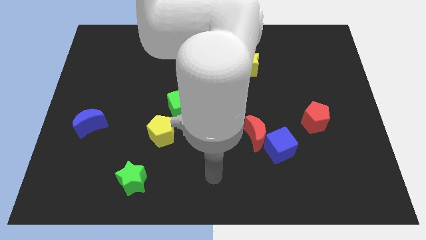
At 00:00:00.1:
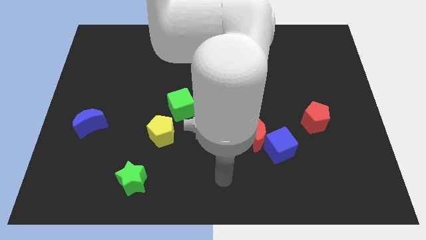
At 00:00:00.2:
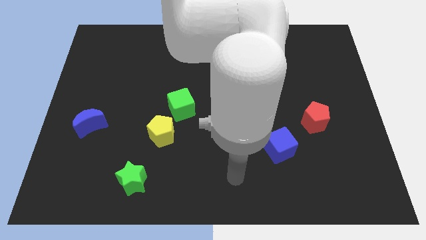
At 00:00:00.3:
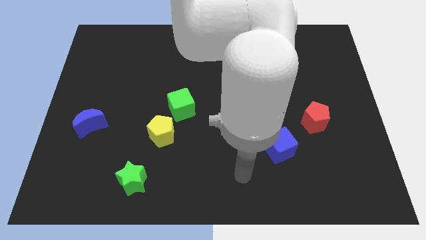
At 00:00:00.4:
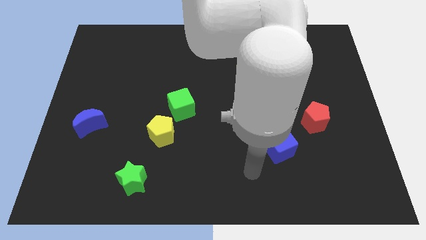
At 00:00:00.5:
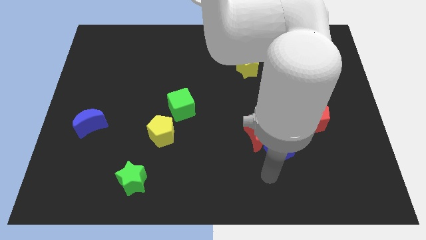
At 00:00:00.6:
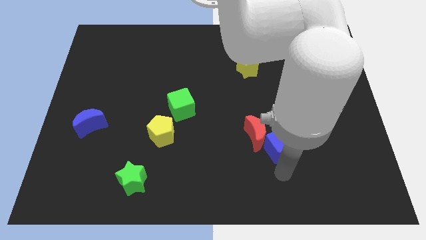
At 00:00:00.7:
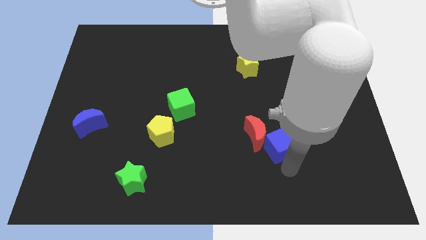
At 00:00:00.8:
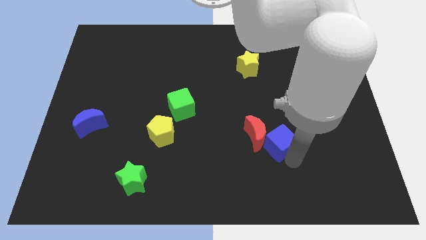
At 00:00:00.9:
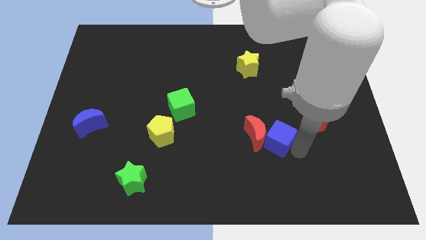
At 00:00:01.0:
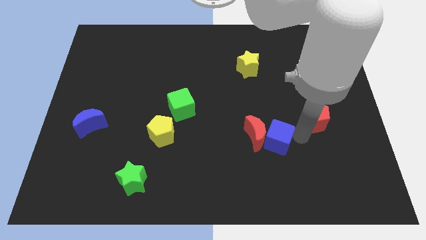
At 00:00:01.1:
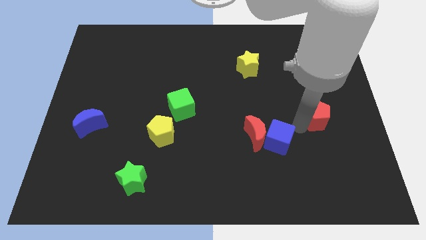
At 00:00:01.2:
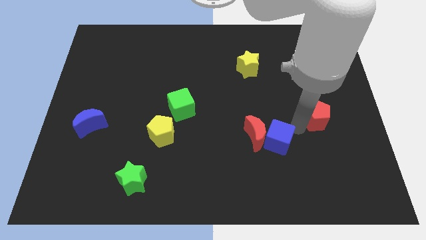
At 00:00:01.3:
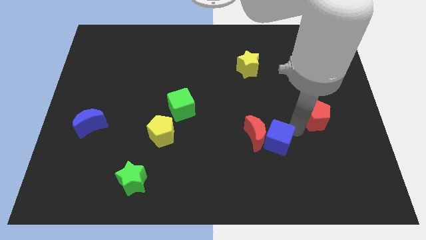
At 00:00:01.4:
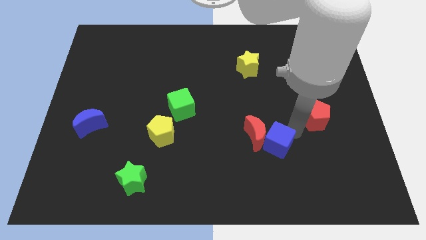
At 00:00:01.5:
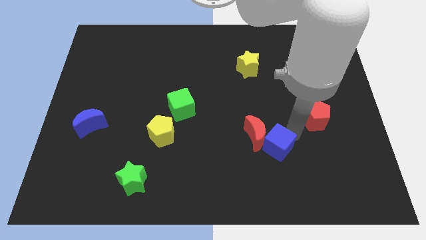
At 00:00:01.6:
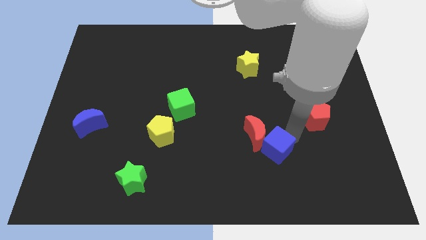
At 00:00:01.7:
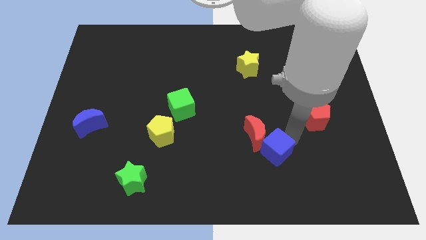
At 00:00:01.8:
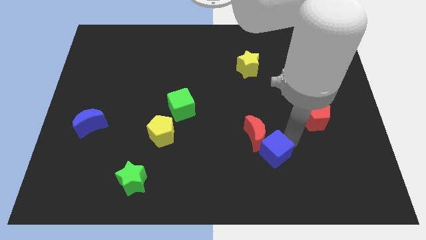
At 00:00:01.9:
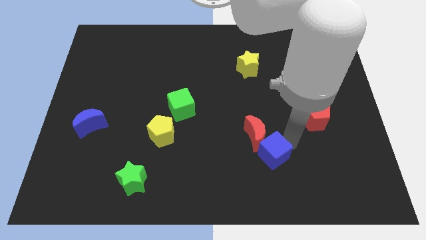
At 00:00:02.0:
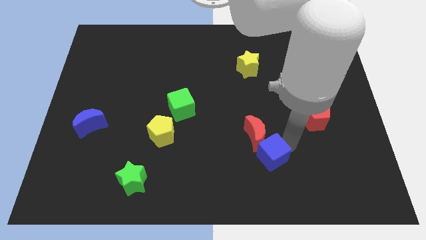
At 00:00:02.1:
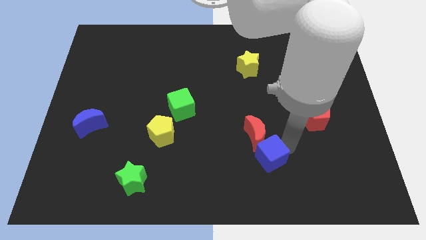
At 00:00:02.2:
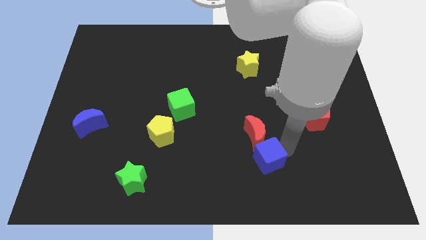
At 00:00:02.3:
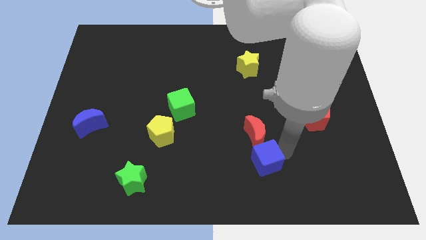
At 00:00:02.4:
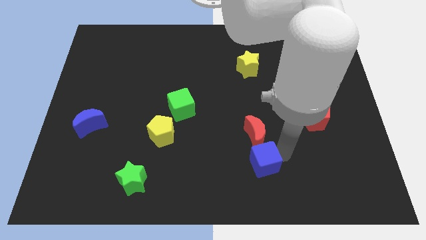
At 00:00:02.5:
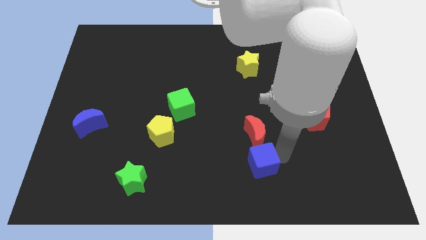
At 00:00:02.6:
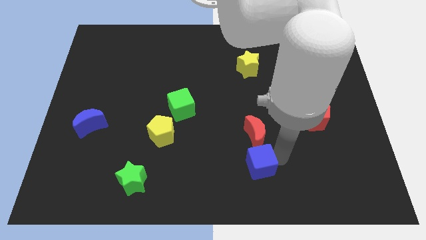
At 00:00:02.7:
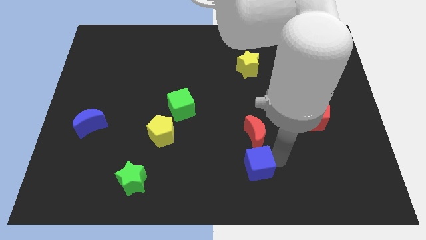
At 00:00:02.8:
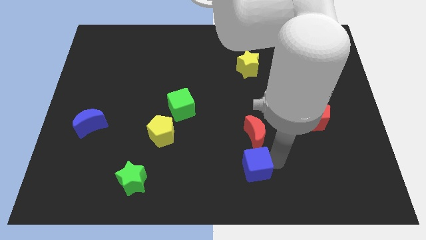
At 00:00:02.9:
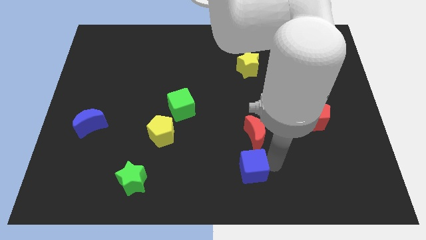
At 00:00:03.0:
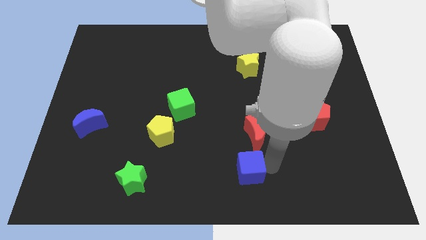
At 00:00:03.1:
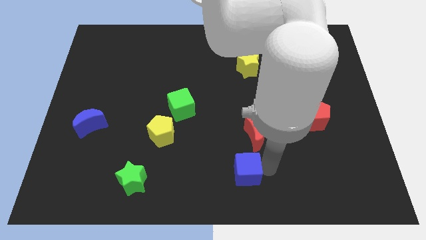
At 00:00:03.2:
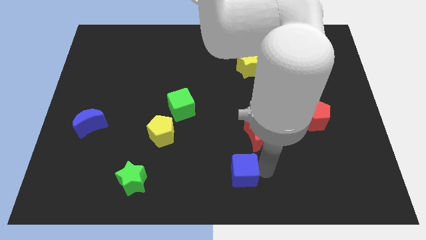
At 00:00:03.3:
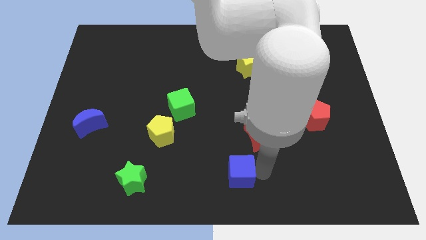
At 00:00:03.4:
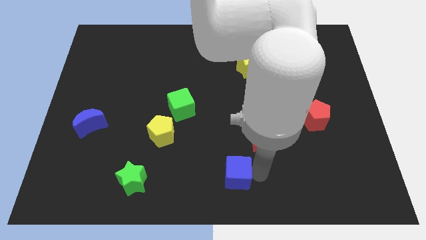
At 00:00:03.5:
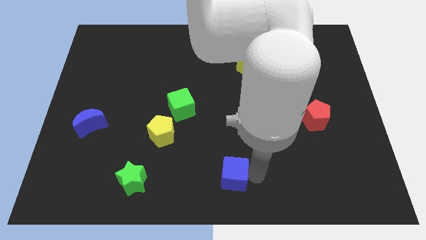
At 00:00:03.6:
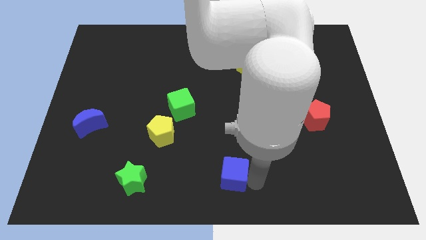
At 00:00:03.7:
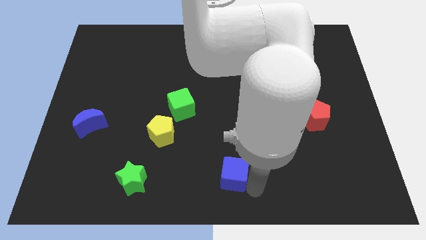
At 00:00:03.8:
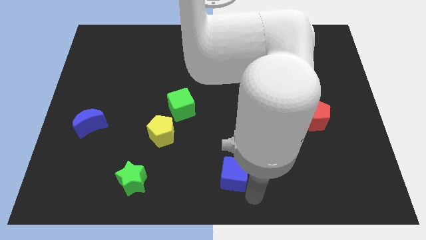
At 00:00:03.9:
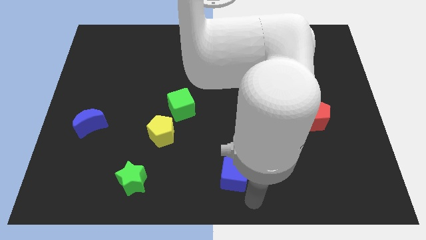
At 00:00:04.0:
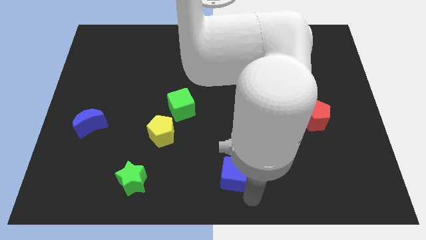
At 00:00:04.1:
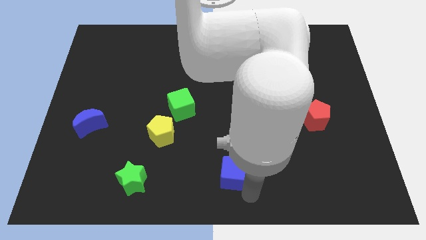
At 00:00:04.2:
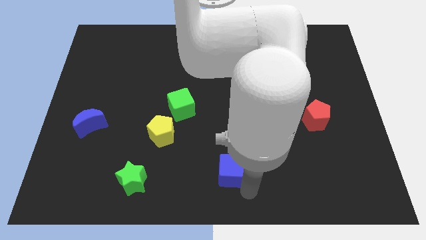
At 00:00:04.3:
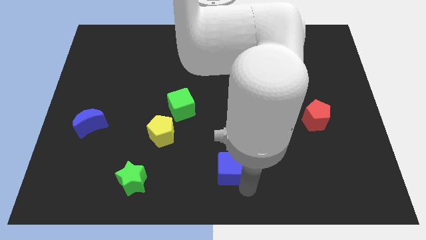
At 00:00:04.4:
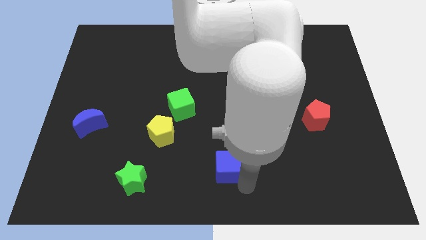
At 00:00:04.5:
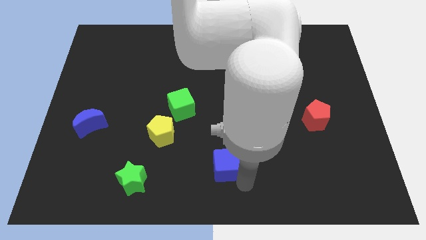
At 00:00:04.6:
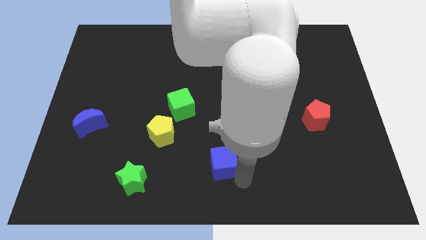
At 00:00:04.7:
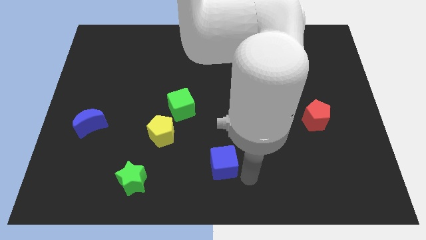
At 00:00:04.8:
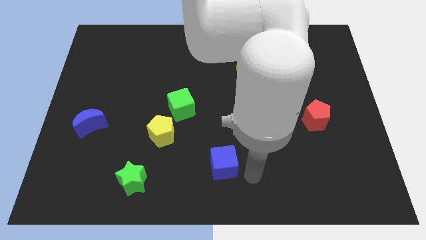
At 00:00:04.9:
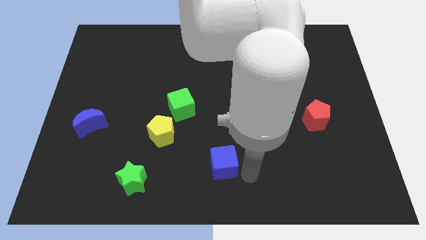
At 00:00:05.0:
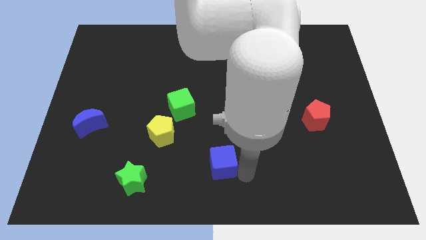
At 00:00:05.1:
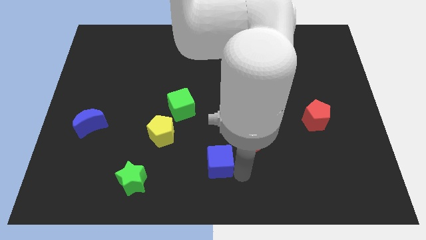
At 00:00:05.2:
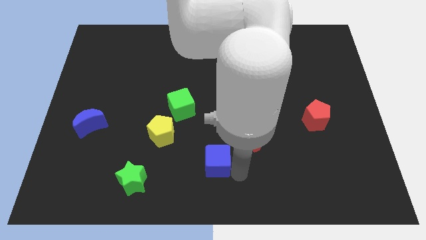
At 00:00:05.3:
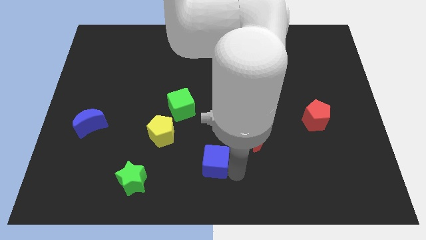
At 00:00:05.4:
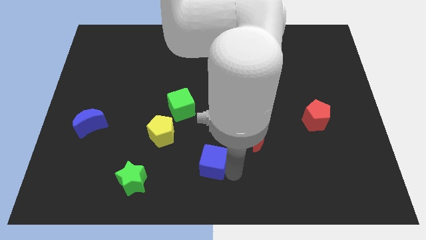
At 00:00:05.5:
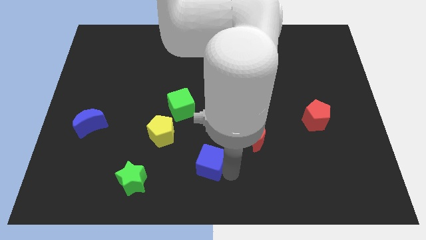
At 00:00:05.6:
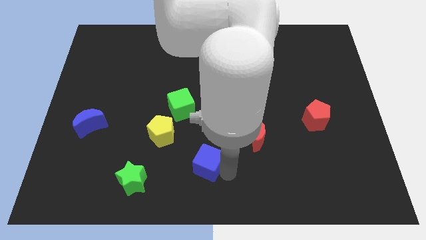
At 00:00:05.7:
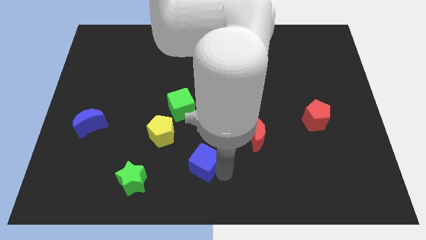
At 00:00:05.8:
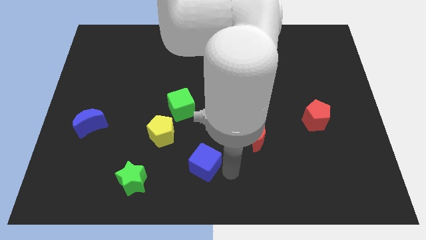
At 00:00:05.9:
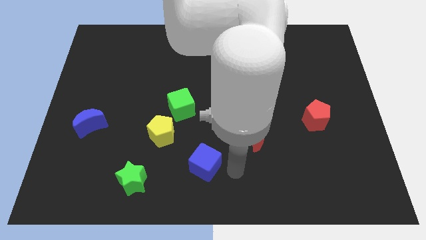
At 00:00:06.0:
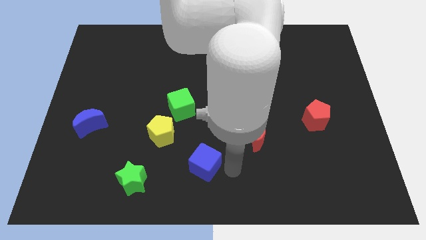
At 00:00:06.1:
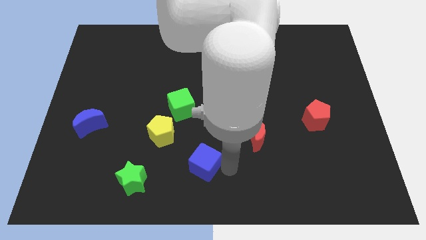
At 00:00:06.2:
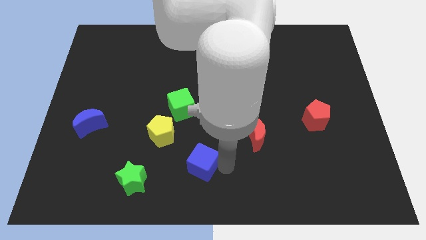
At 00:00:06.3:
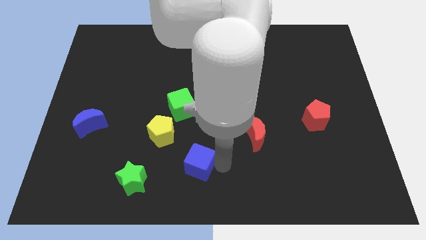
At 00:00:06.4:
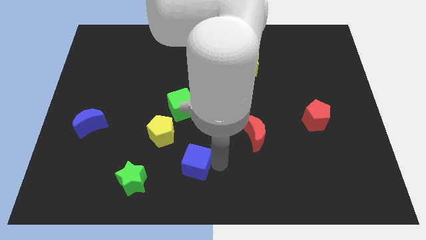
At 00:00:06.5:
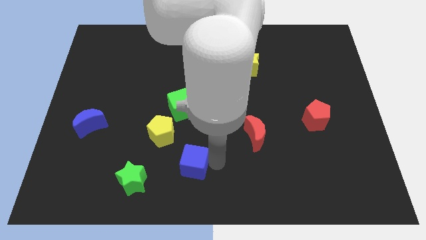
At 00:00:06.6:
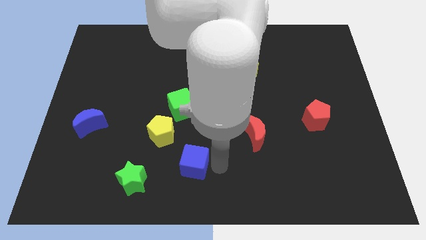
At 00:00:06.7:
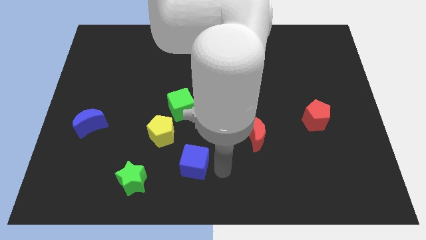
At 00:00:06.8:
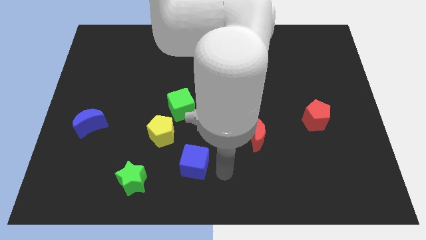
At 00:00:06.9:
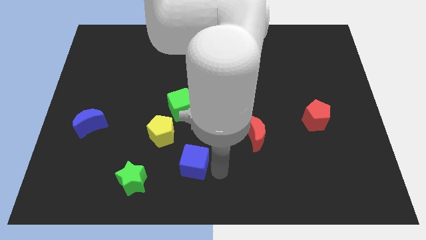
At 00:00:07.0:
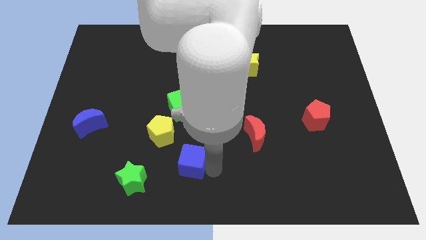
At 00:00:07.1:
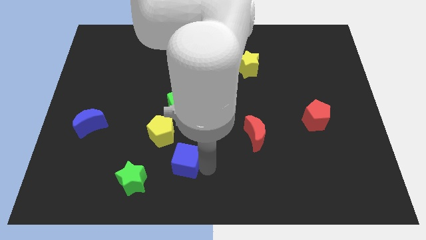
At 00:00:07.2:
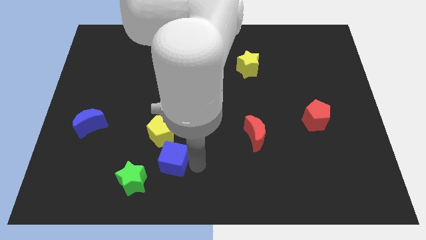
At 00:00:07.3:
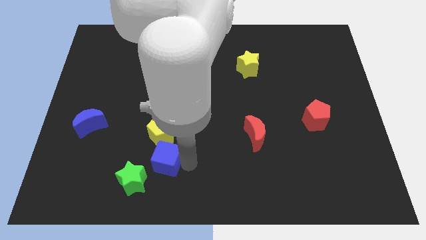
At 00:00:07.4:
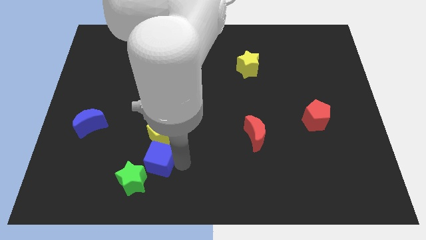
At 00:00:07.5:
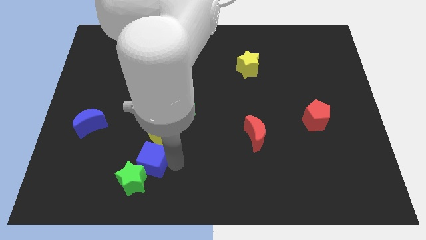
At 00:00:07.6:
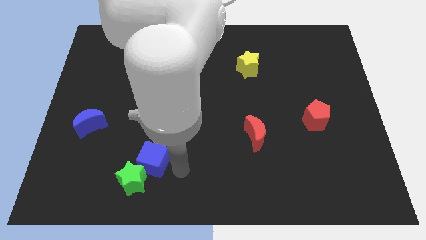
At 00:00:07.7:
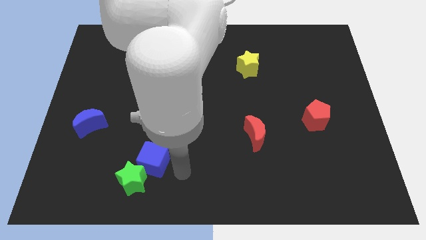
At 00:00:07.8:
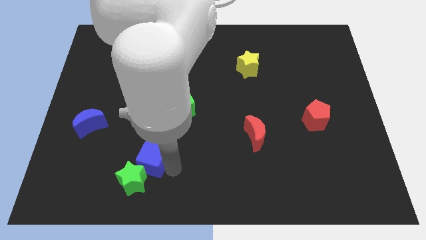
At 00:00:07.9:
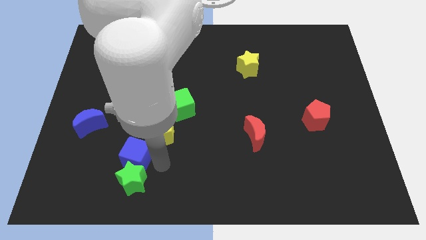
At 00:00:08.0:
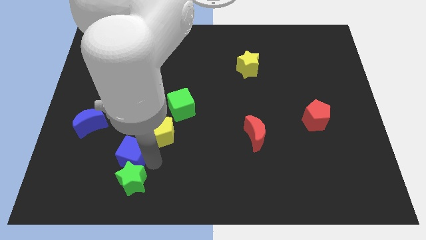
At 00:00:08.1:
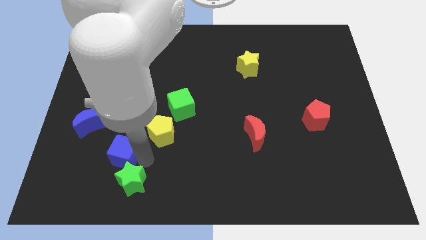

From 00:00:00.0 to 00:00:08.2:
slide the blue cube to the bottom right of the blue moon
